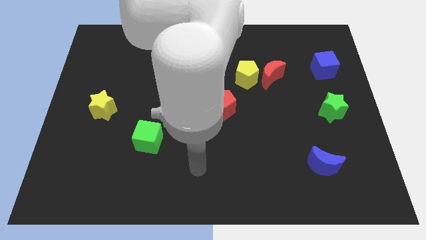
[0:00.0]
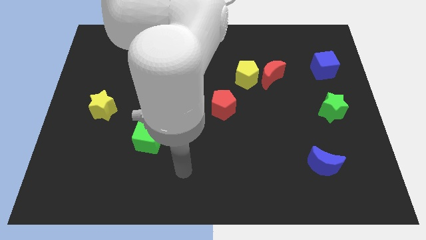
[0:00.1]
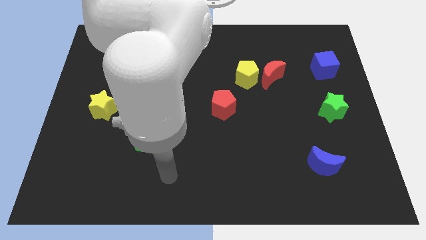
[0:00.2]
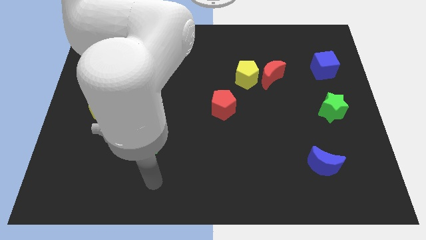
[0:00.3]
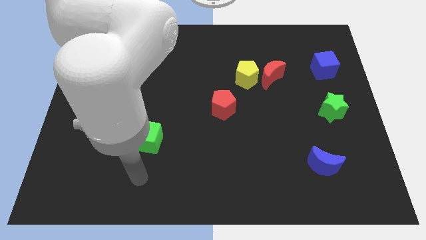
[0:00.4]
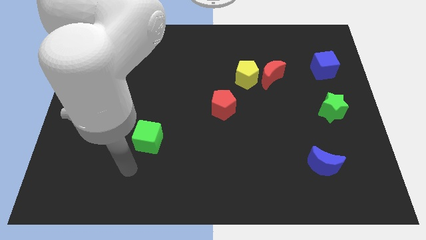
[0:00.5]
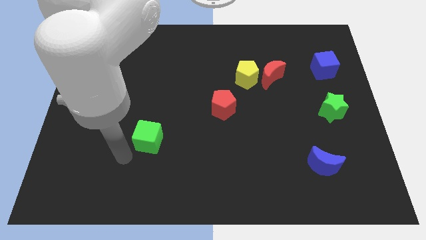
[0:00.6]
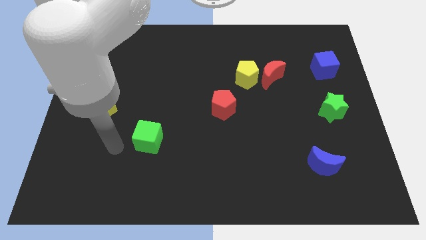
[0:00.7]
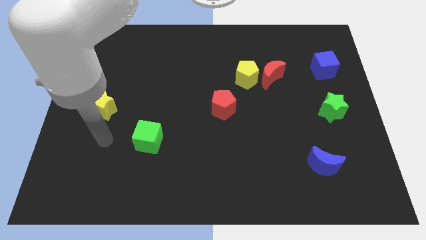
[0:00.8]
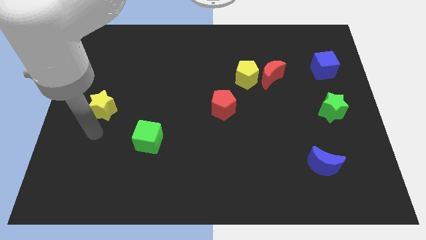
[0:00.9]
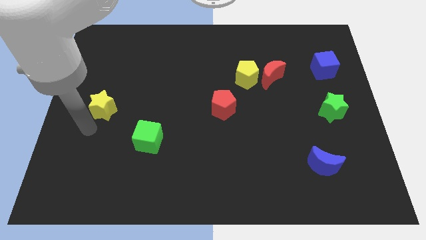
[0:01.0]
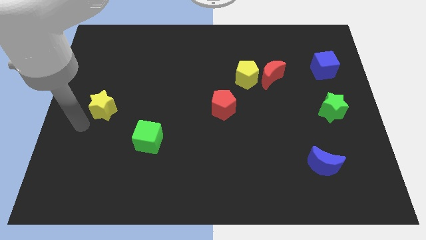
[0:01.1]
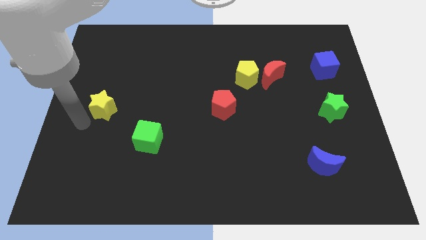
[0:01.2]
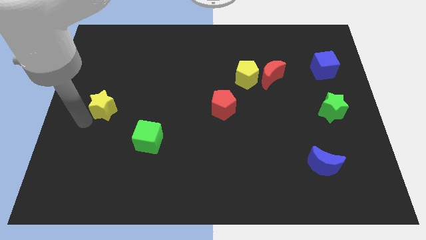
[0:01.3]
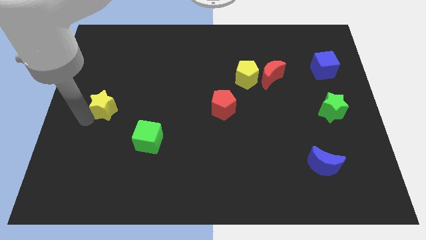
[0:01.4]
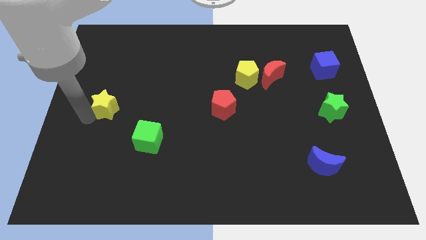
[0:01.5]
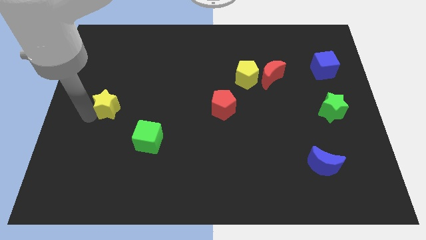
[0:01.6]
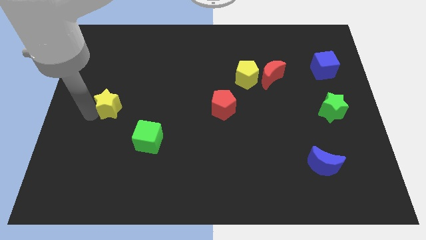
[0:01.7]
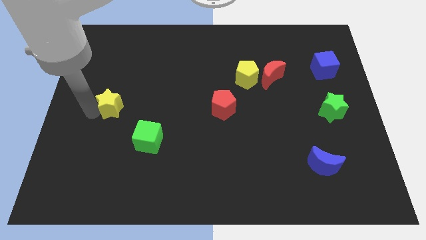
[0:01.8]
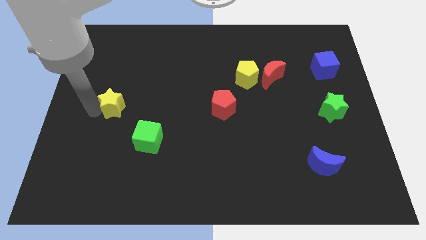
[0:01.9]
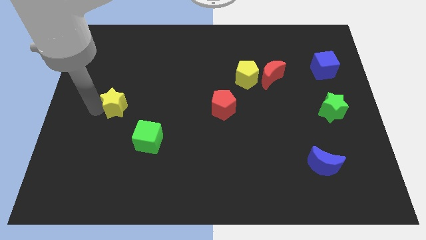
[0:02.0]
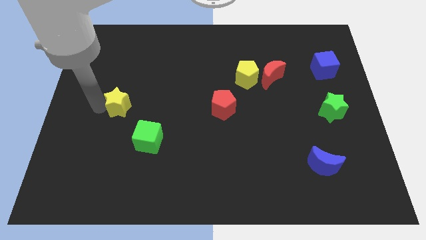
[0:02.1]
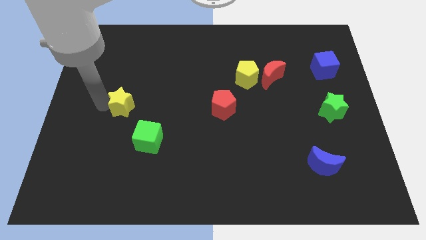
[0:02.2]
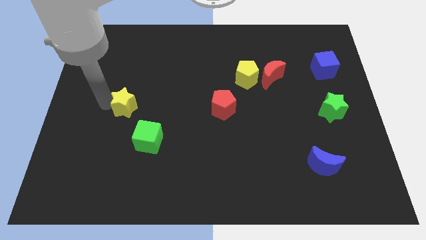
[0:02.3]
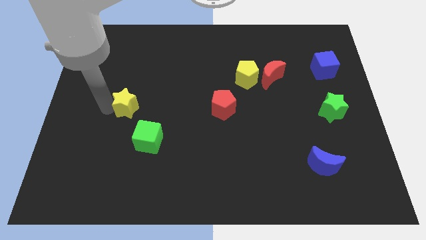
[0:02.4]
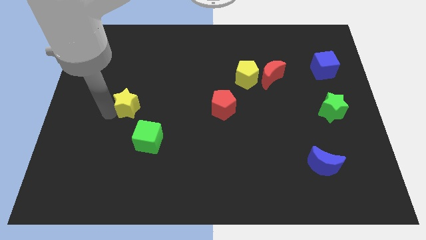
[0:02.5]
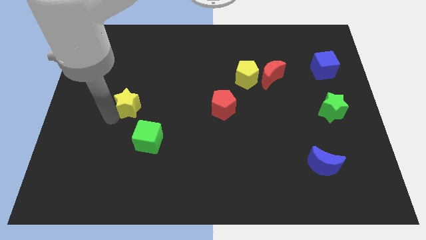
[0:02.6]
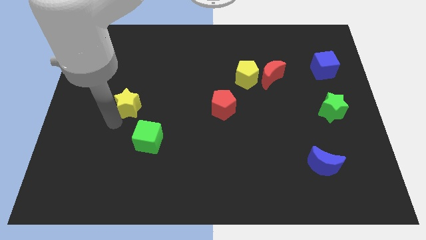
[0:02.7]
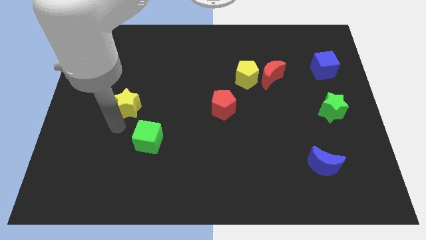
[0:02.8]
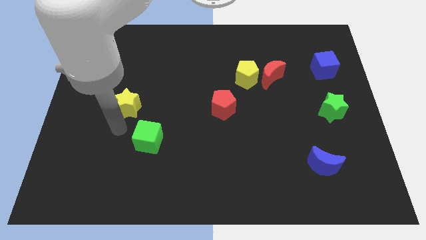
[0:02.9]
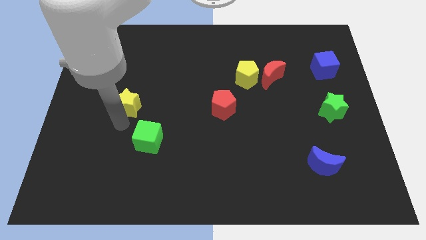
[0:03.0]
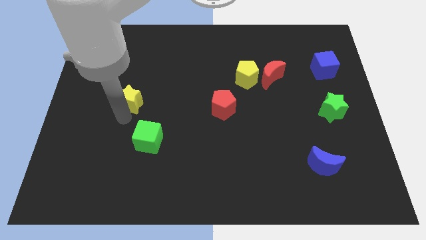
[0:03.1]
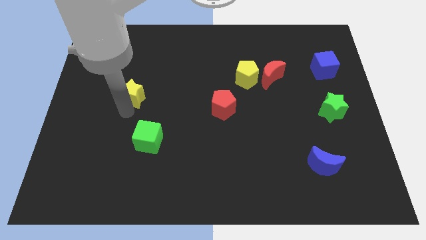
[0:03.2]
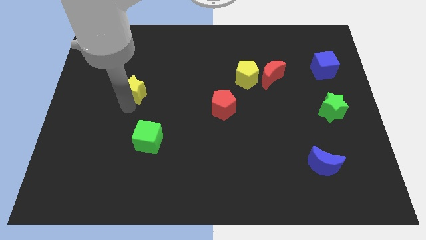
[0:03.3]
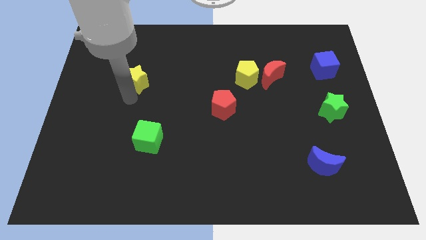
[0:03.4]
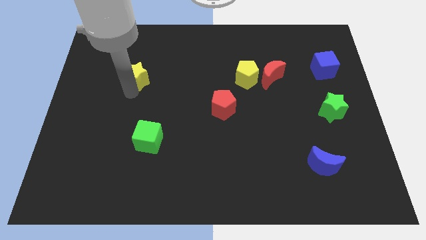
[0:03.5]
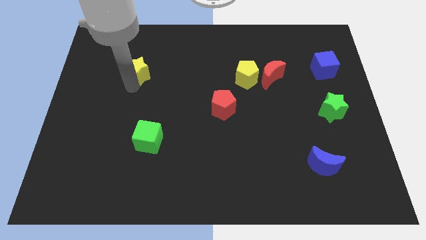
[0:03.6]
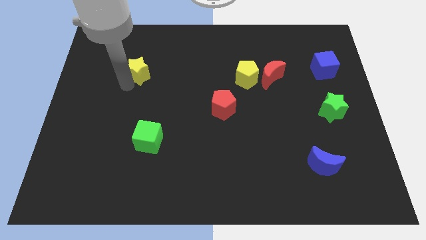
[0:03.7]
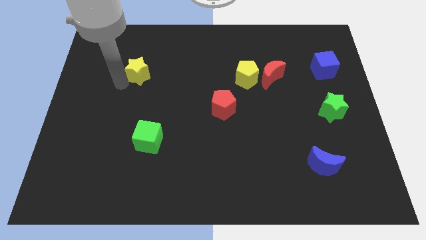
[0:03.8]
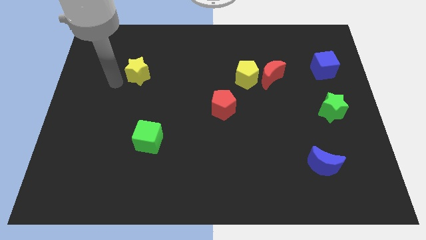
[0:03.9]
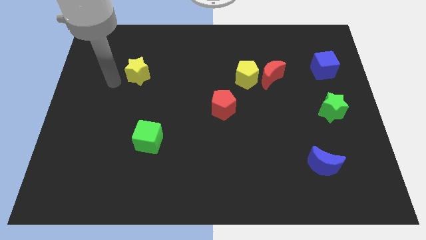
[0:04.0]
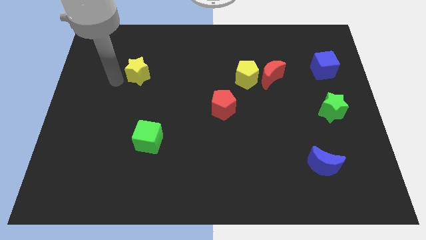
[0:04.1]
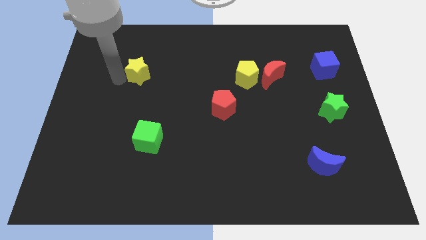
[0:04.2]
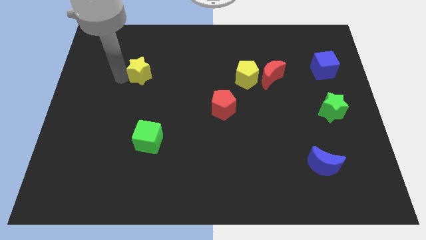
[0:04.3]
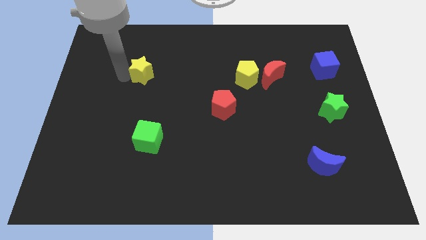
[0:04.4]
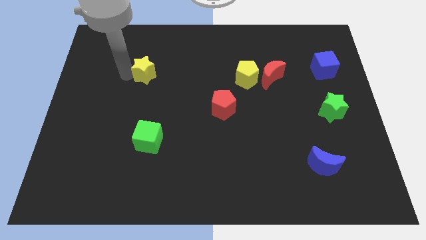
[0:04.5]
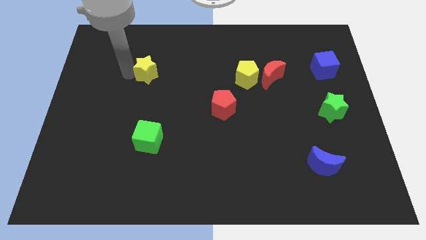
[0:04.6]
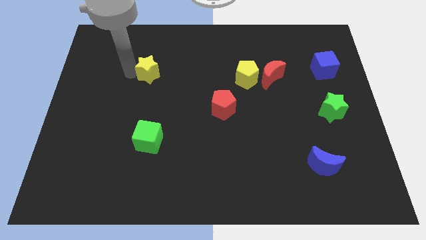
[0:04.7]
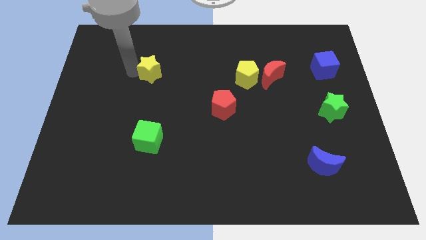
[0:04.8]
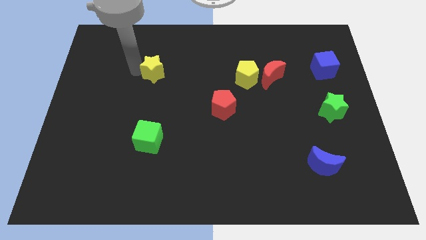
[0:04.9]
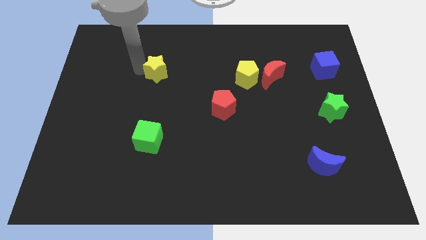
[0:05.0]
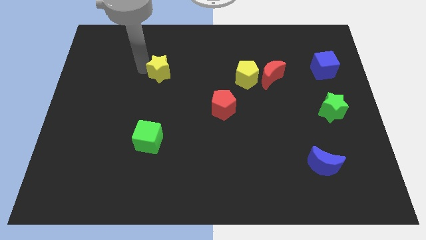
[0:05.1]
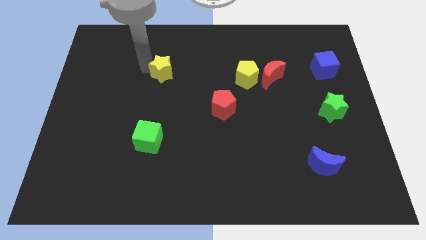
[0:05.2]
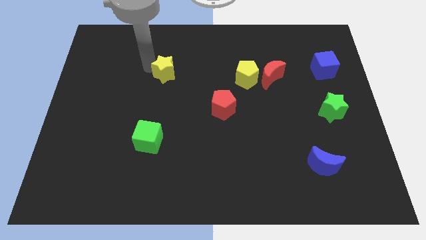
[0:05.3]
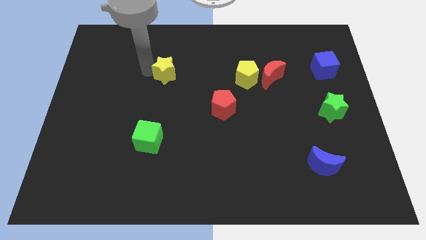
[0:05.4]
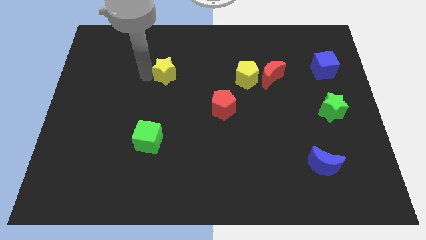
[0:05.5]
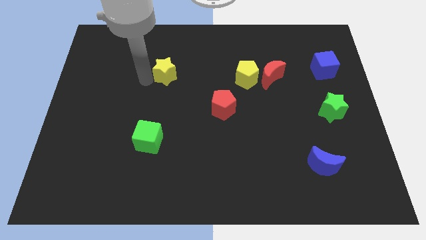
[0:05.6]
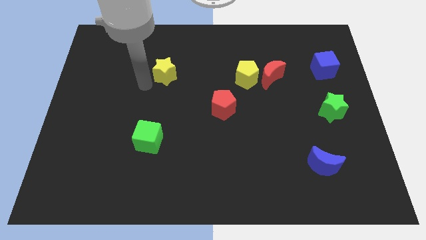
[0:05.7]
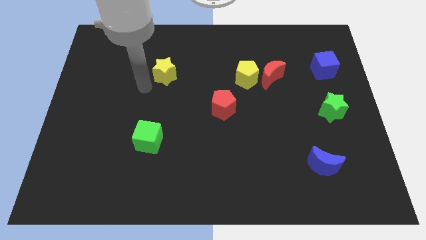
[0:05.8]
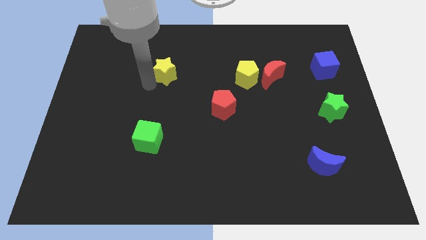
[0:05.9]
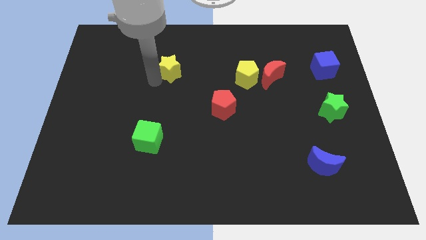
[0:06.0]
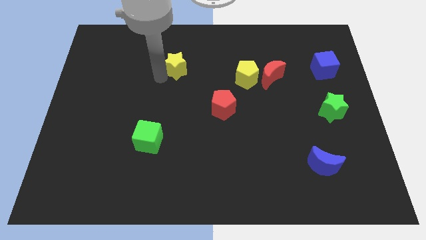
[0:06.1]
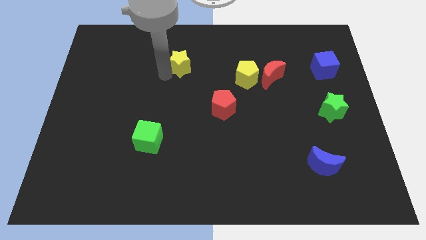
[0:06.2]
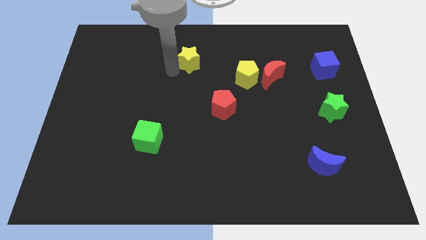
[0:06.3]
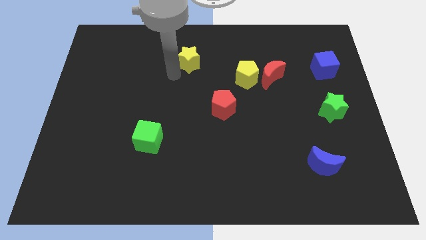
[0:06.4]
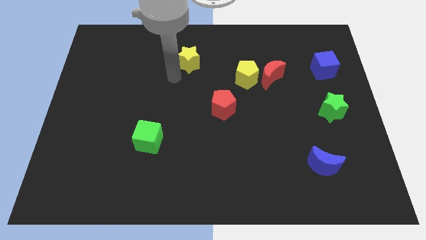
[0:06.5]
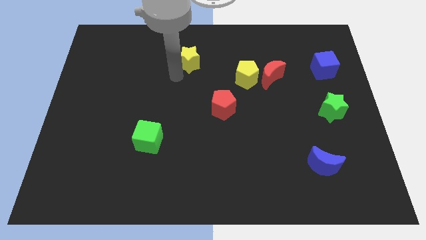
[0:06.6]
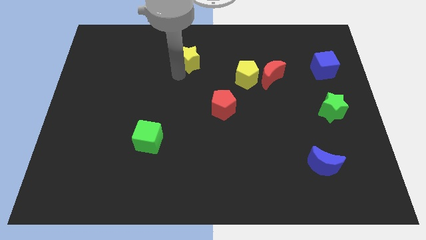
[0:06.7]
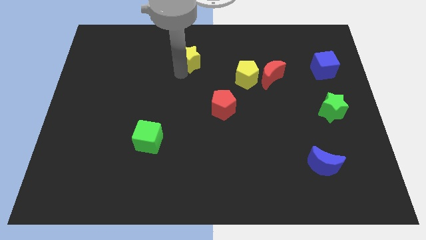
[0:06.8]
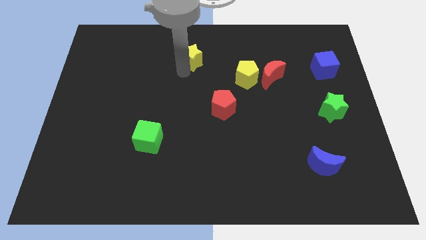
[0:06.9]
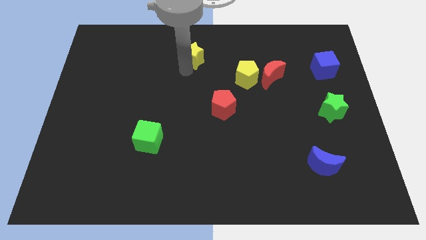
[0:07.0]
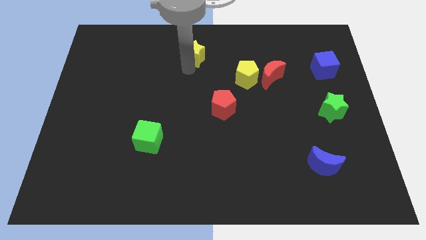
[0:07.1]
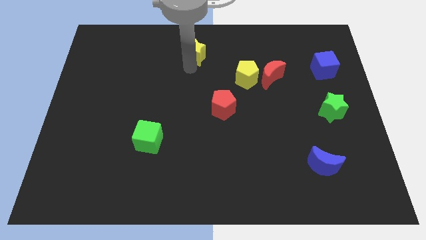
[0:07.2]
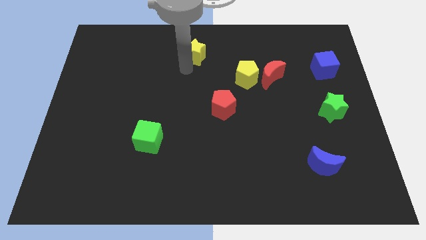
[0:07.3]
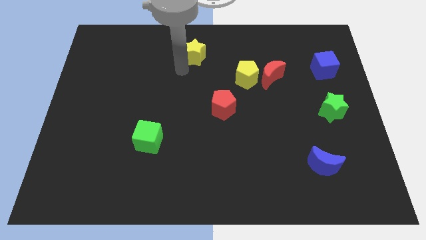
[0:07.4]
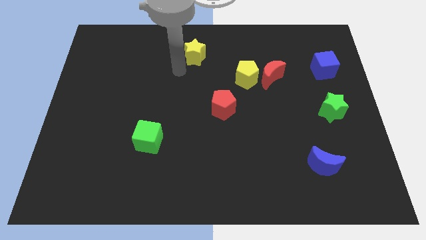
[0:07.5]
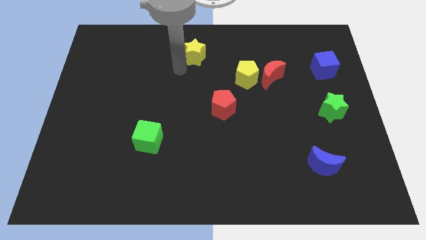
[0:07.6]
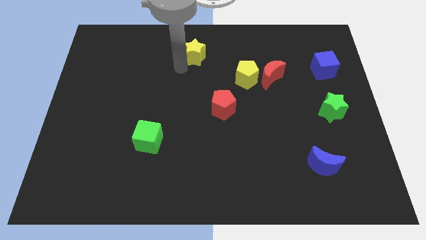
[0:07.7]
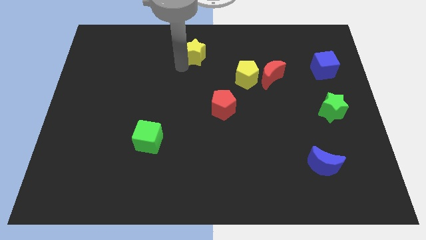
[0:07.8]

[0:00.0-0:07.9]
put the yellow star to the towards your base
